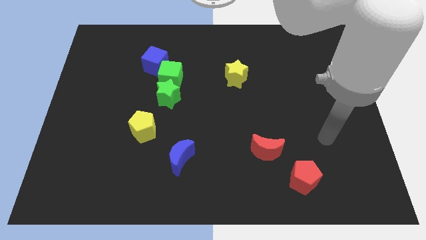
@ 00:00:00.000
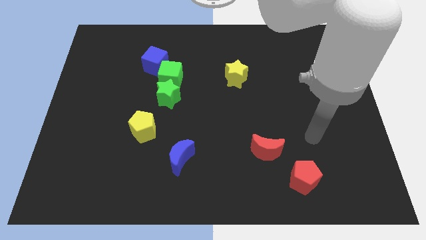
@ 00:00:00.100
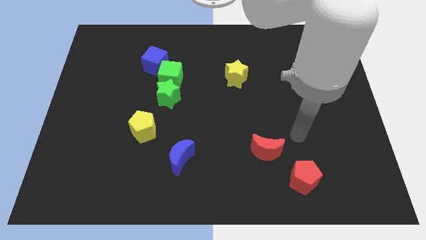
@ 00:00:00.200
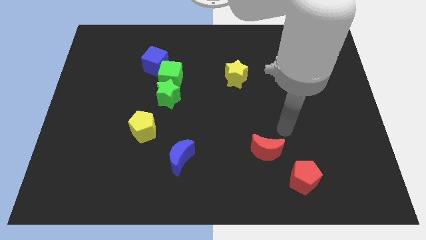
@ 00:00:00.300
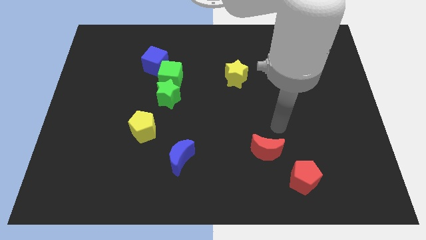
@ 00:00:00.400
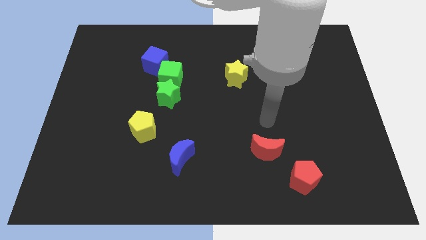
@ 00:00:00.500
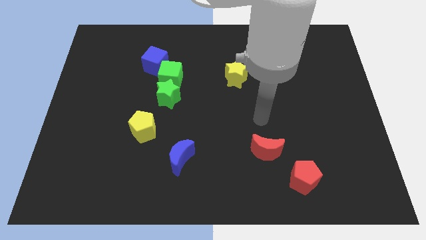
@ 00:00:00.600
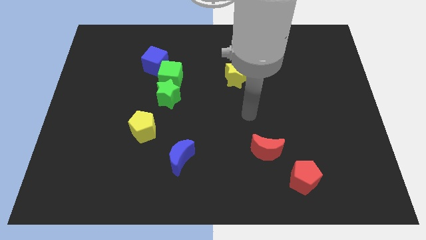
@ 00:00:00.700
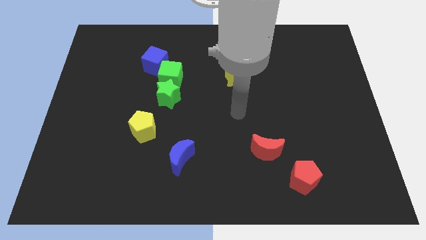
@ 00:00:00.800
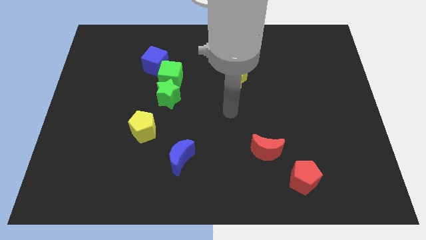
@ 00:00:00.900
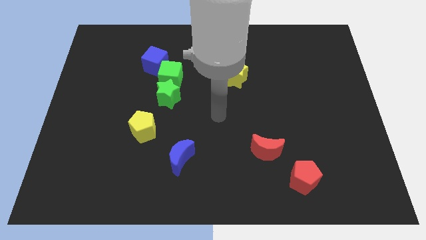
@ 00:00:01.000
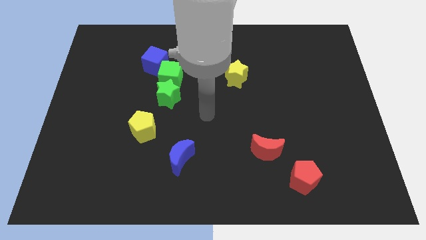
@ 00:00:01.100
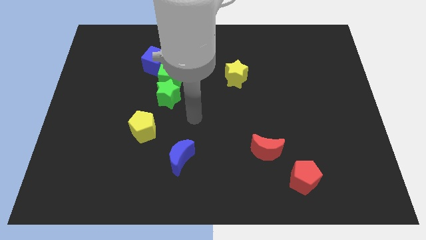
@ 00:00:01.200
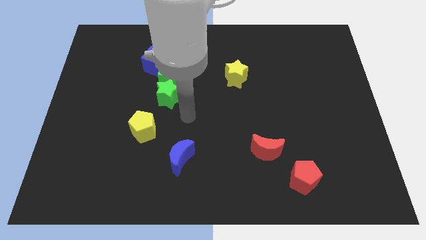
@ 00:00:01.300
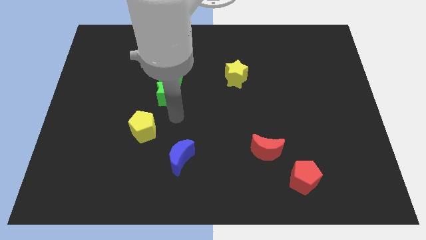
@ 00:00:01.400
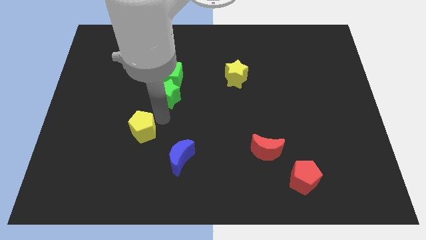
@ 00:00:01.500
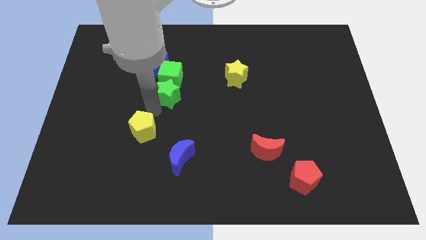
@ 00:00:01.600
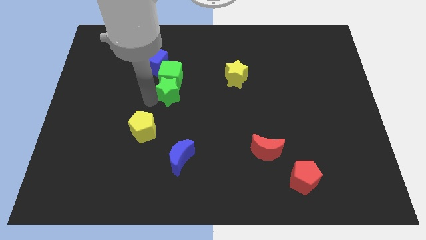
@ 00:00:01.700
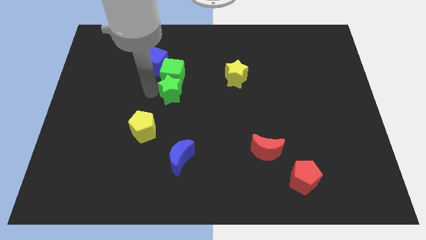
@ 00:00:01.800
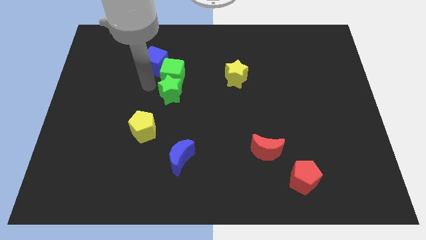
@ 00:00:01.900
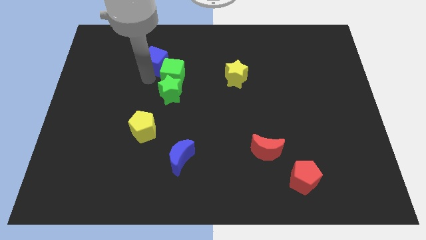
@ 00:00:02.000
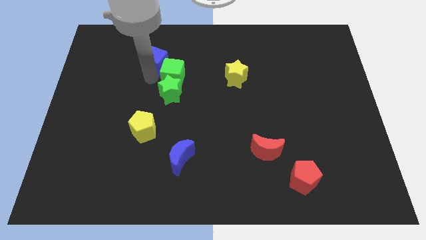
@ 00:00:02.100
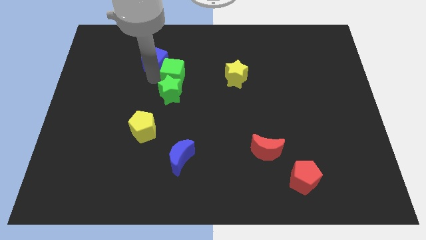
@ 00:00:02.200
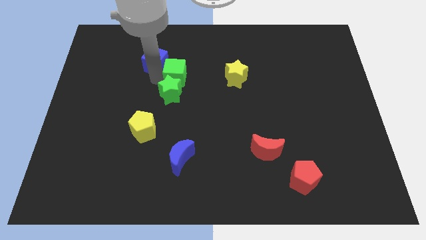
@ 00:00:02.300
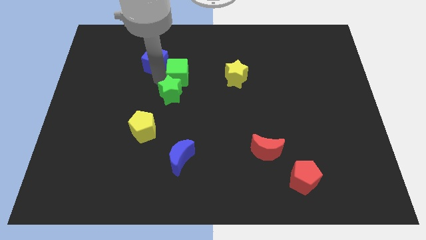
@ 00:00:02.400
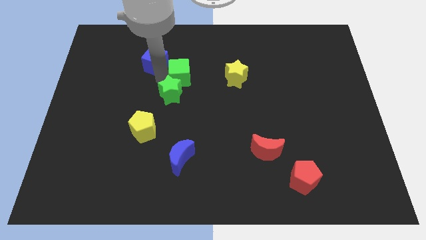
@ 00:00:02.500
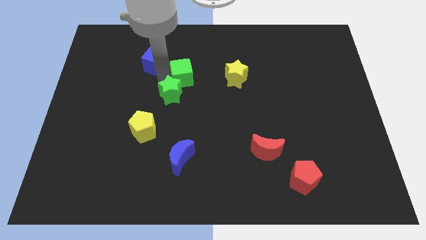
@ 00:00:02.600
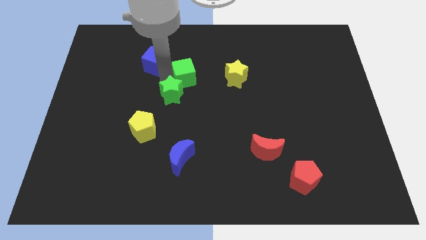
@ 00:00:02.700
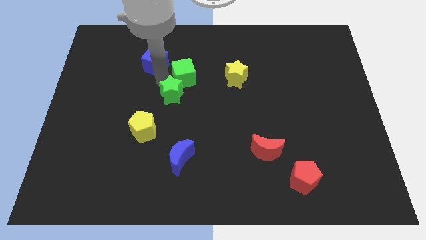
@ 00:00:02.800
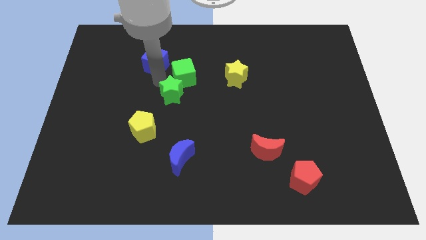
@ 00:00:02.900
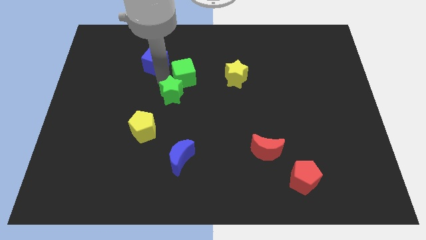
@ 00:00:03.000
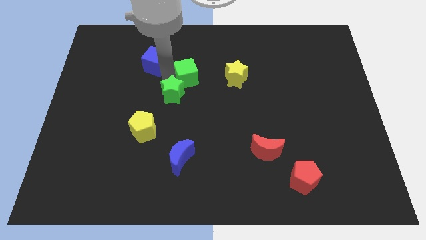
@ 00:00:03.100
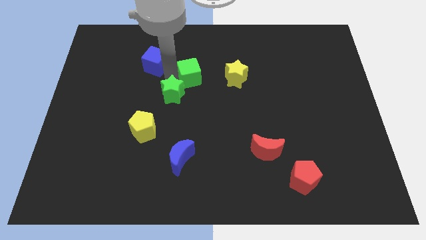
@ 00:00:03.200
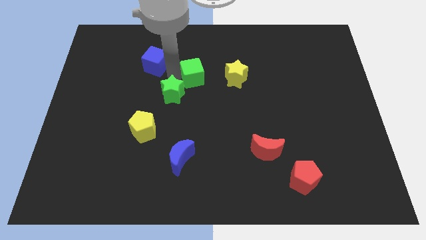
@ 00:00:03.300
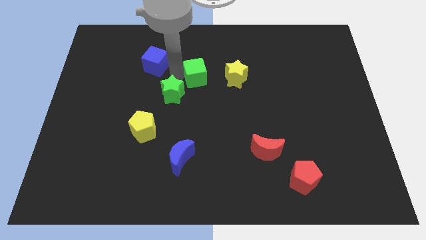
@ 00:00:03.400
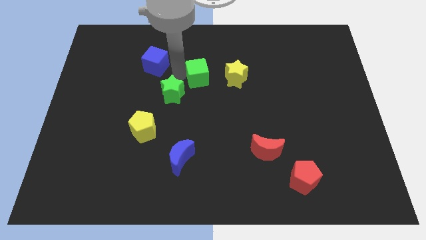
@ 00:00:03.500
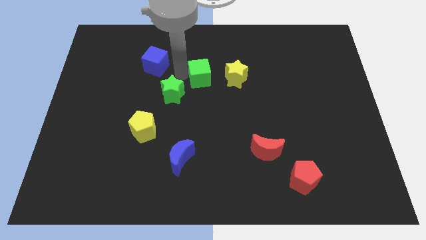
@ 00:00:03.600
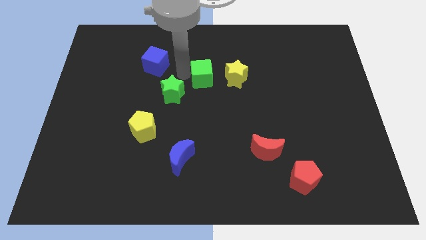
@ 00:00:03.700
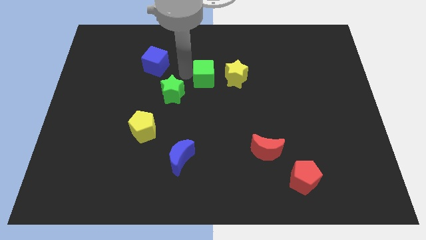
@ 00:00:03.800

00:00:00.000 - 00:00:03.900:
pull the green cube apart from the green star and blue cube

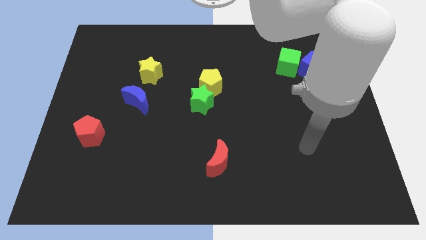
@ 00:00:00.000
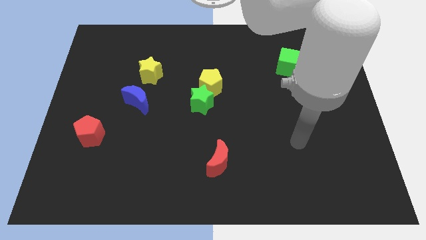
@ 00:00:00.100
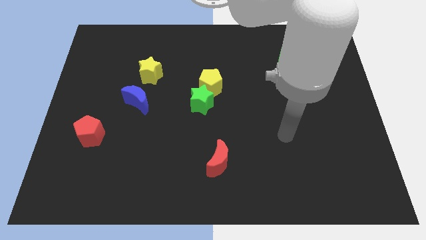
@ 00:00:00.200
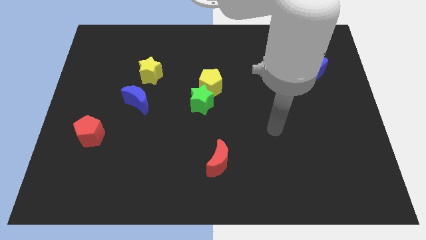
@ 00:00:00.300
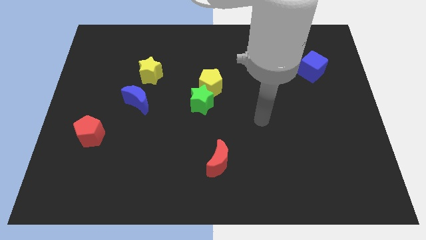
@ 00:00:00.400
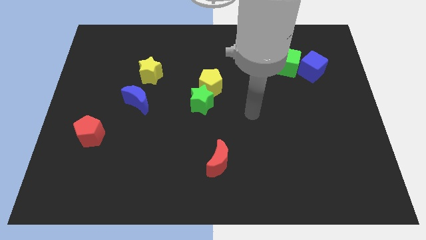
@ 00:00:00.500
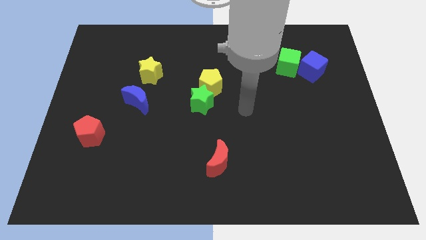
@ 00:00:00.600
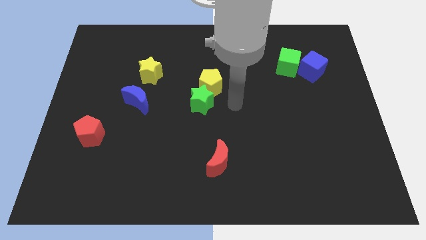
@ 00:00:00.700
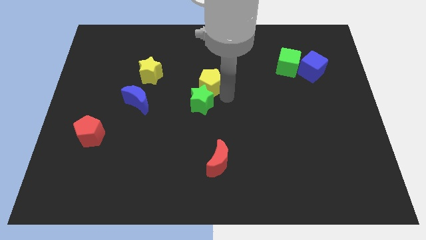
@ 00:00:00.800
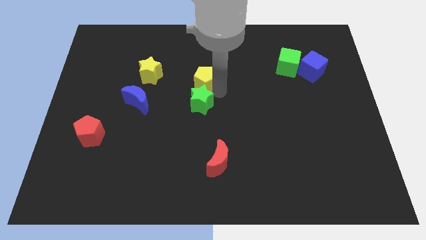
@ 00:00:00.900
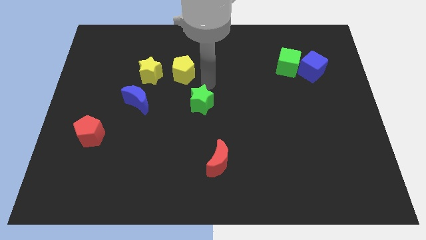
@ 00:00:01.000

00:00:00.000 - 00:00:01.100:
separate the green star from the yellow pentagon

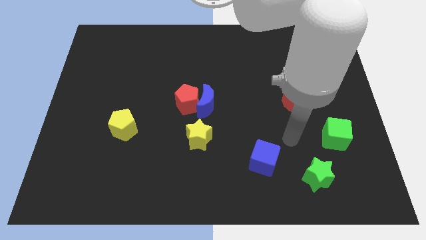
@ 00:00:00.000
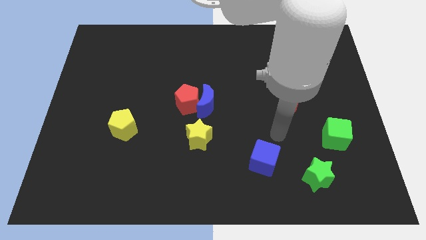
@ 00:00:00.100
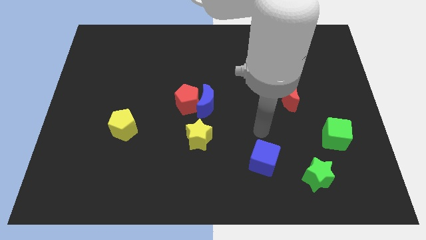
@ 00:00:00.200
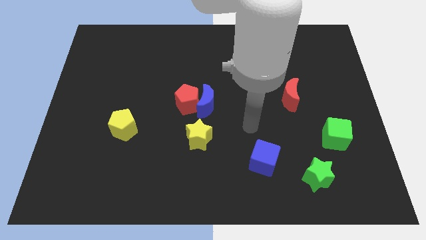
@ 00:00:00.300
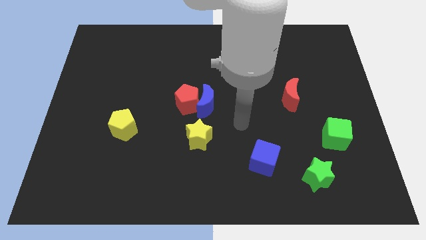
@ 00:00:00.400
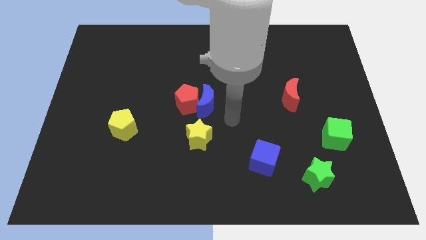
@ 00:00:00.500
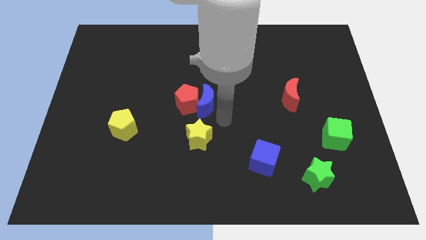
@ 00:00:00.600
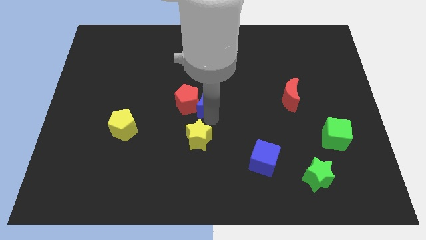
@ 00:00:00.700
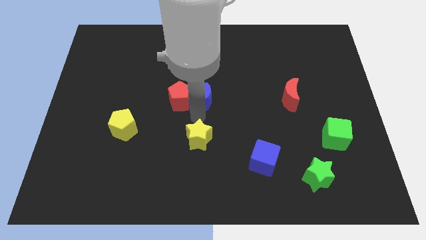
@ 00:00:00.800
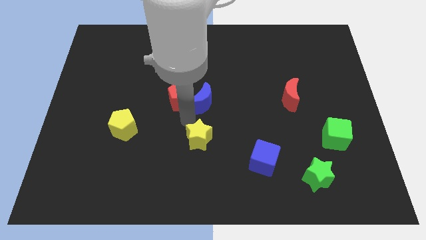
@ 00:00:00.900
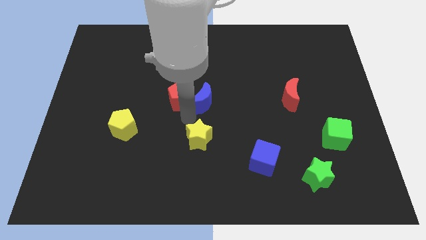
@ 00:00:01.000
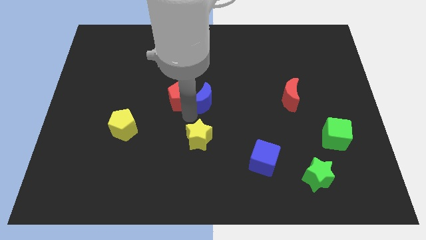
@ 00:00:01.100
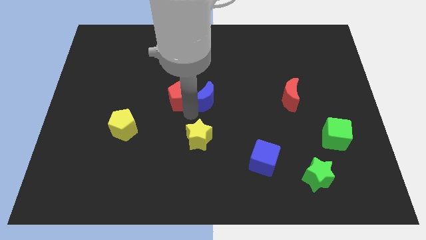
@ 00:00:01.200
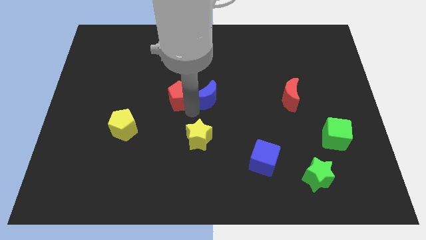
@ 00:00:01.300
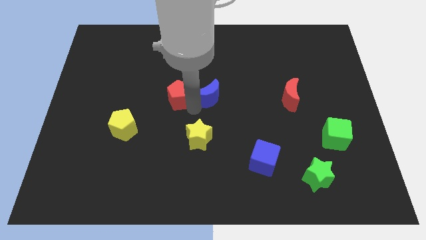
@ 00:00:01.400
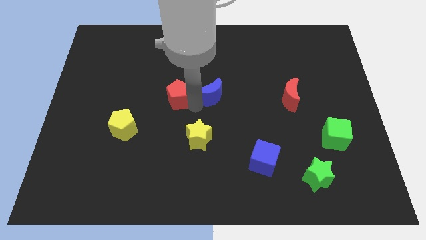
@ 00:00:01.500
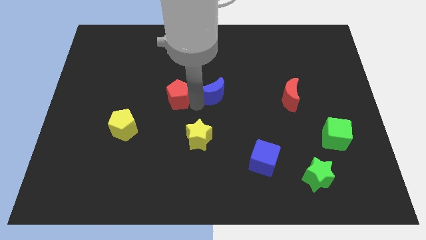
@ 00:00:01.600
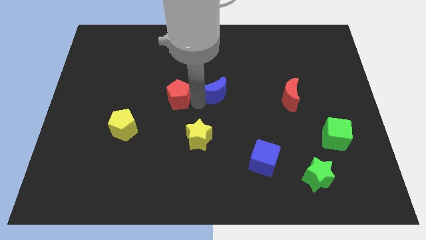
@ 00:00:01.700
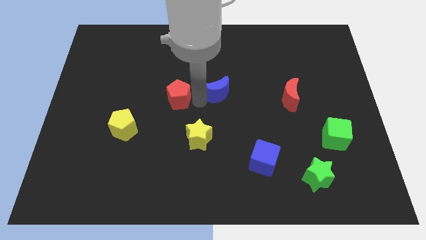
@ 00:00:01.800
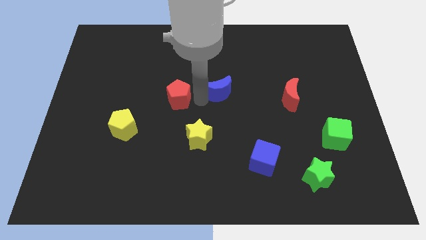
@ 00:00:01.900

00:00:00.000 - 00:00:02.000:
separate the blue moon from the red pentagon and yellow star

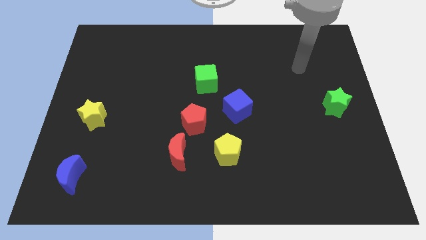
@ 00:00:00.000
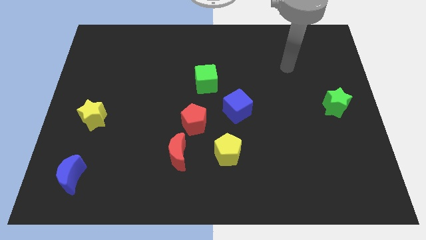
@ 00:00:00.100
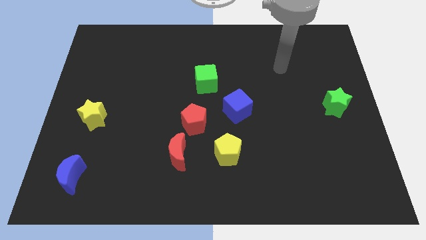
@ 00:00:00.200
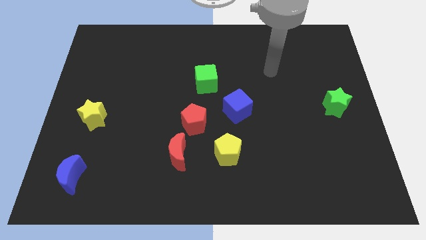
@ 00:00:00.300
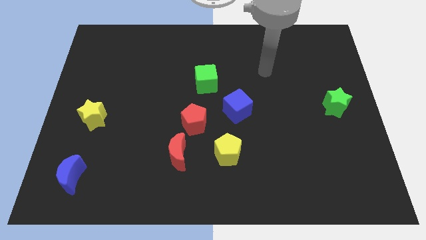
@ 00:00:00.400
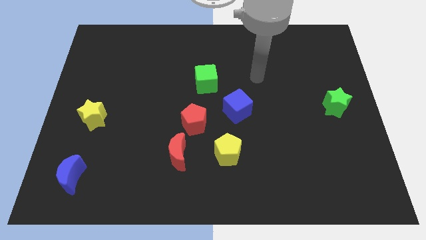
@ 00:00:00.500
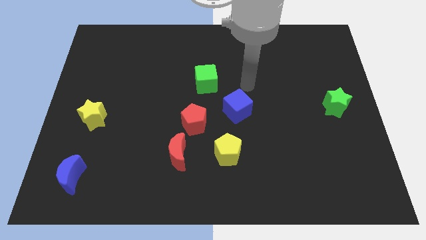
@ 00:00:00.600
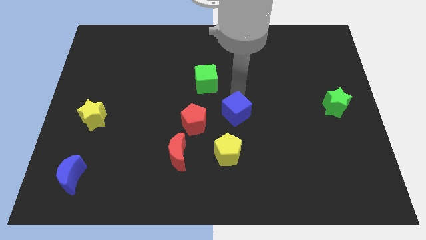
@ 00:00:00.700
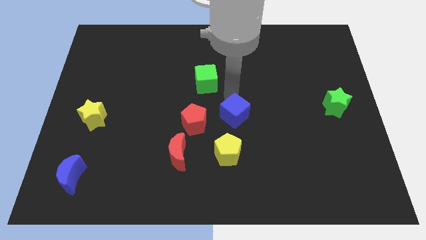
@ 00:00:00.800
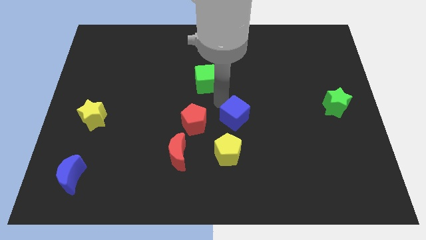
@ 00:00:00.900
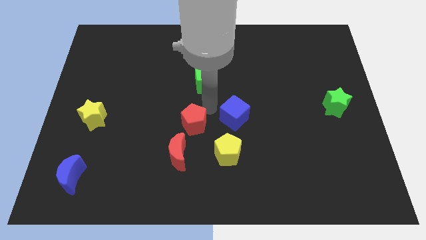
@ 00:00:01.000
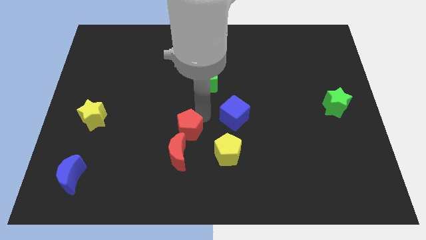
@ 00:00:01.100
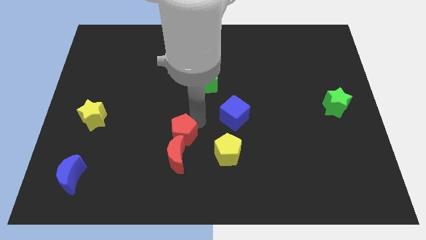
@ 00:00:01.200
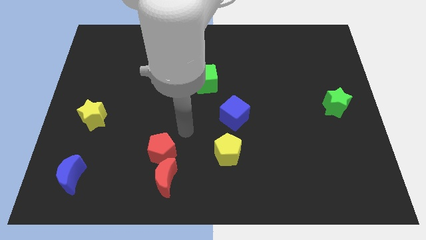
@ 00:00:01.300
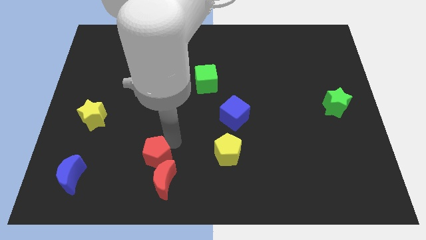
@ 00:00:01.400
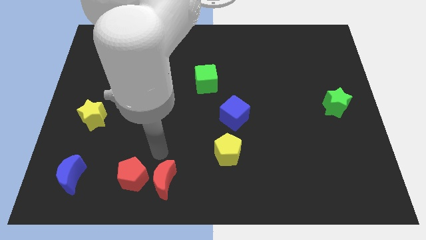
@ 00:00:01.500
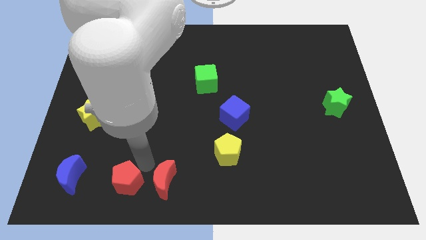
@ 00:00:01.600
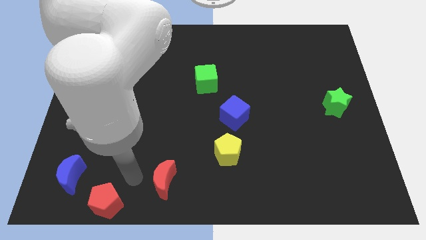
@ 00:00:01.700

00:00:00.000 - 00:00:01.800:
separate the red moon from the red pentagon

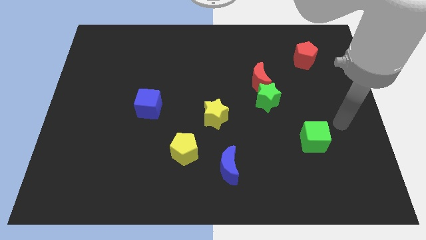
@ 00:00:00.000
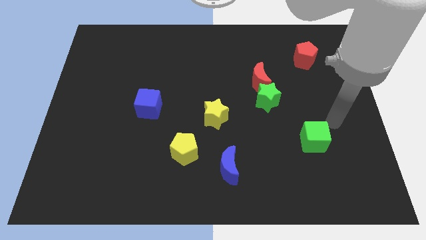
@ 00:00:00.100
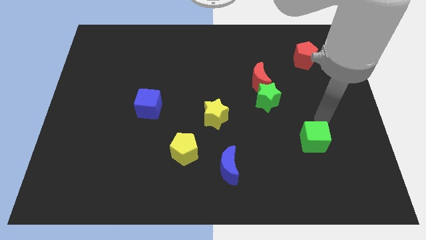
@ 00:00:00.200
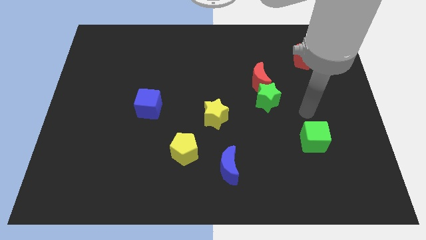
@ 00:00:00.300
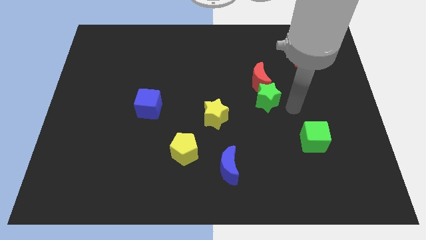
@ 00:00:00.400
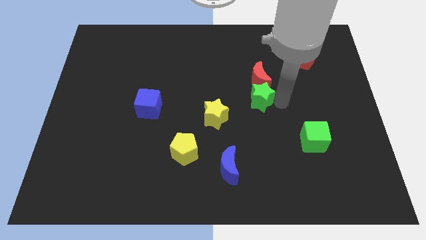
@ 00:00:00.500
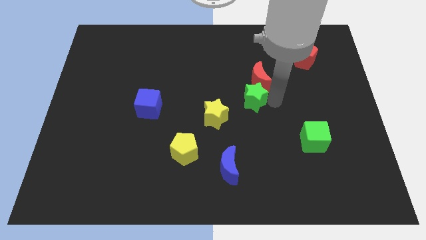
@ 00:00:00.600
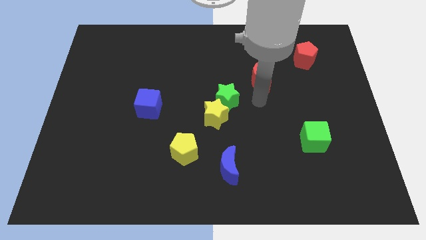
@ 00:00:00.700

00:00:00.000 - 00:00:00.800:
move the red moon away from the green star
